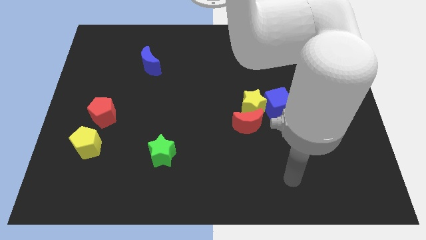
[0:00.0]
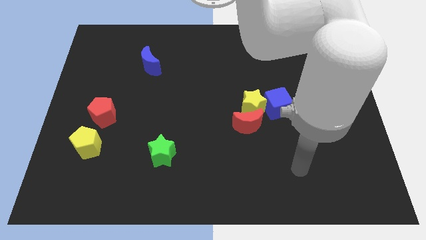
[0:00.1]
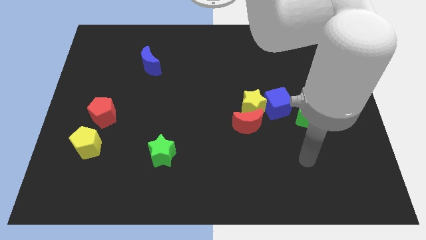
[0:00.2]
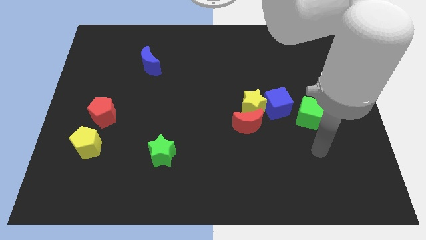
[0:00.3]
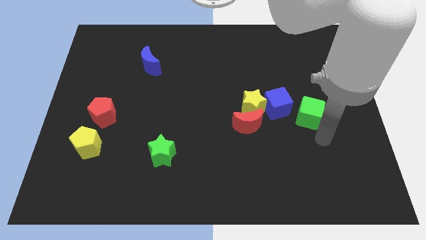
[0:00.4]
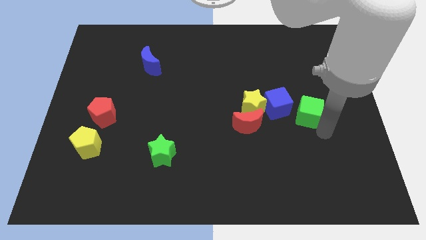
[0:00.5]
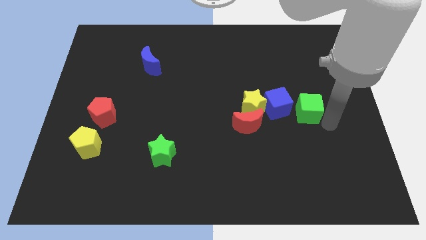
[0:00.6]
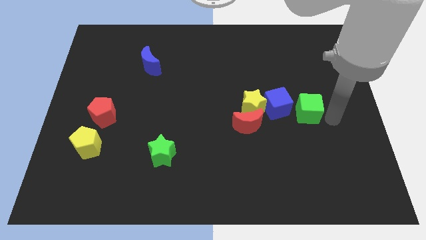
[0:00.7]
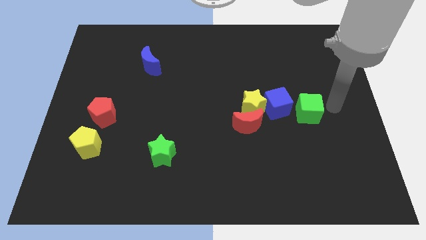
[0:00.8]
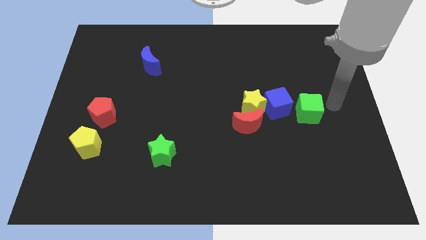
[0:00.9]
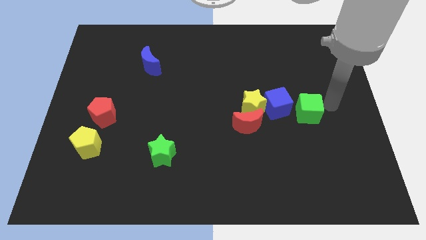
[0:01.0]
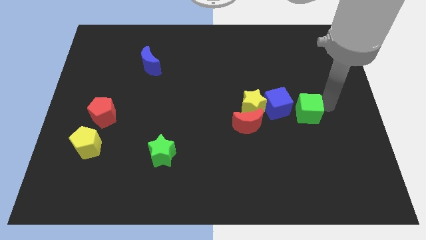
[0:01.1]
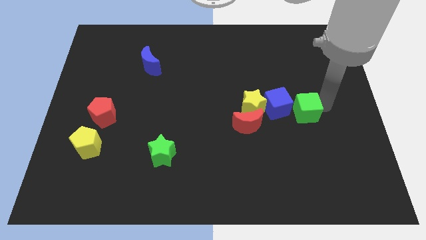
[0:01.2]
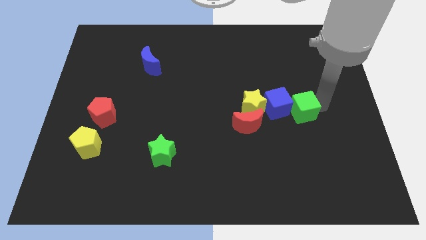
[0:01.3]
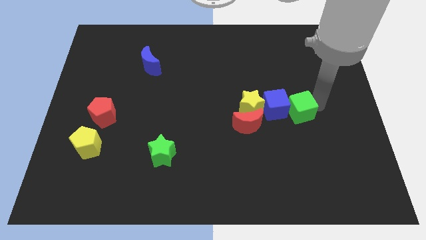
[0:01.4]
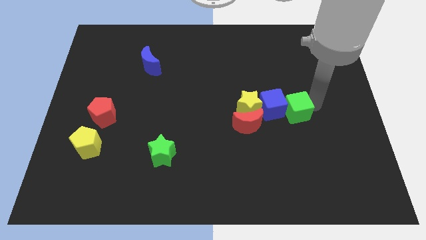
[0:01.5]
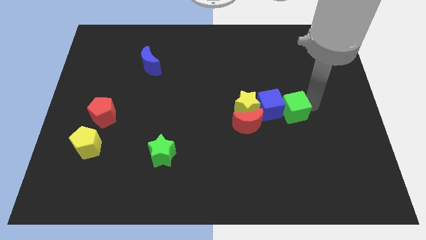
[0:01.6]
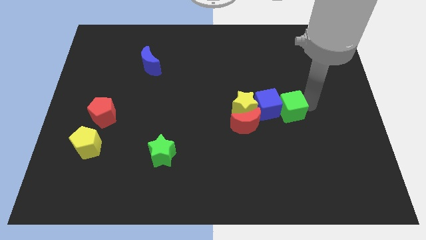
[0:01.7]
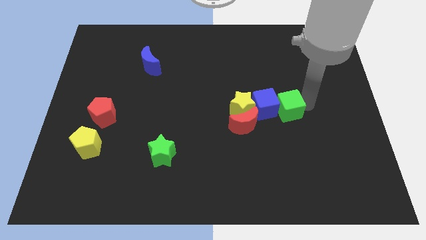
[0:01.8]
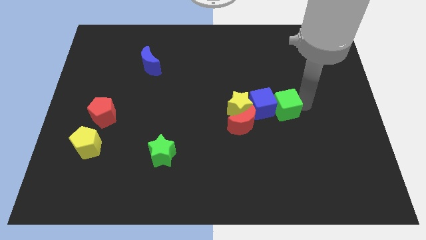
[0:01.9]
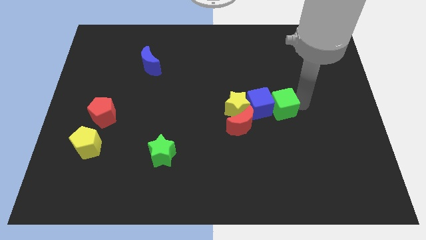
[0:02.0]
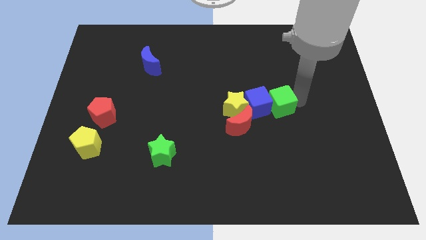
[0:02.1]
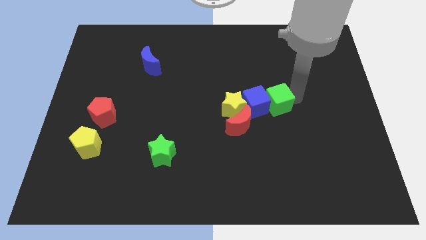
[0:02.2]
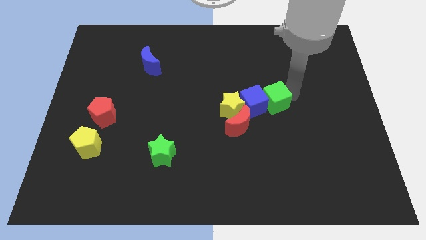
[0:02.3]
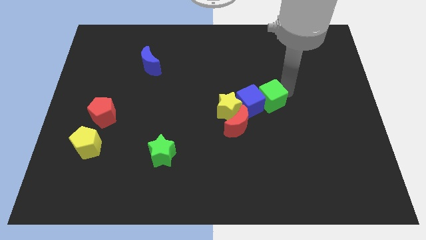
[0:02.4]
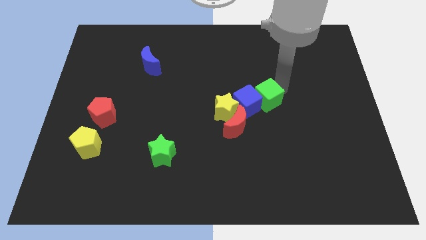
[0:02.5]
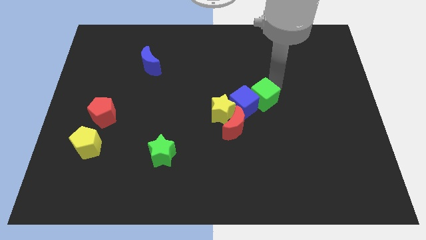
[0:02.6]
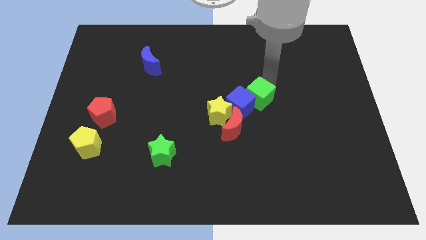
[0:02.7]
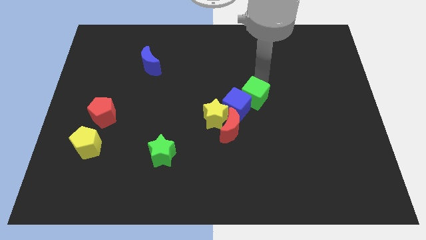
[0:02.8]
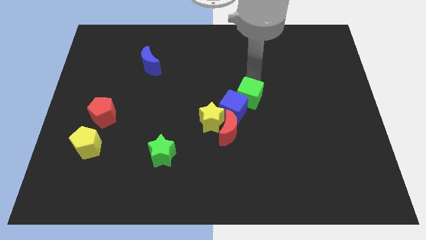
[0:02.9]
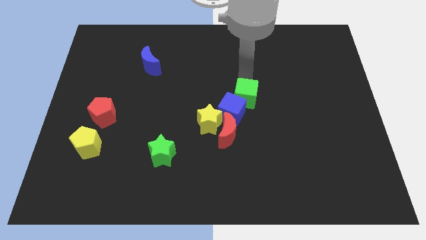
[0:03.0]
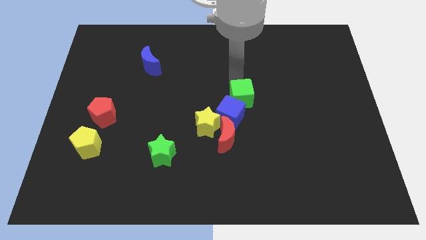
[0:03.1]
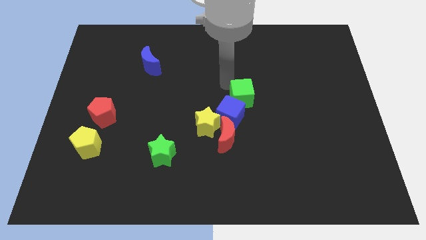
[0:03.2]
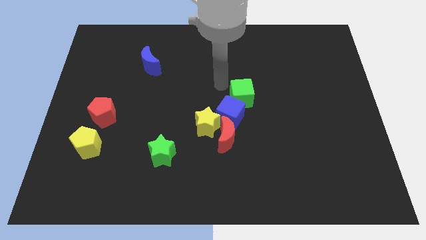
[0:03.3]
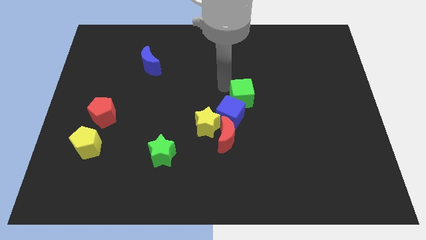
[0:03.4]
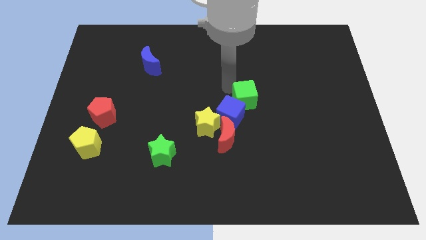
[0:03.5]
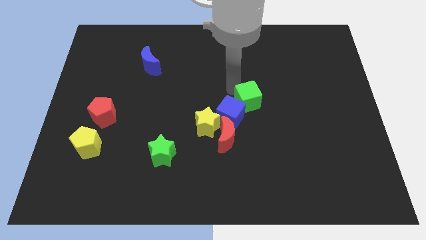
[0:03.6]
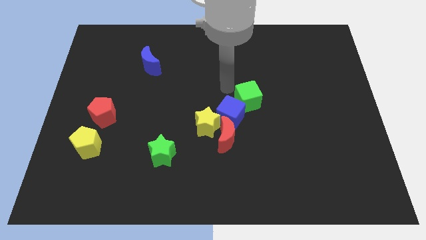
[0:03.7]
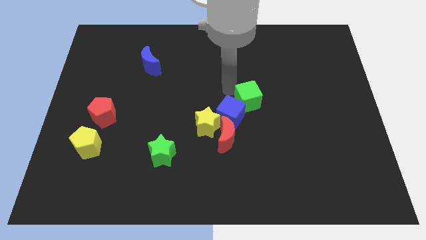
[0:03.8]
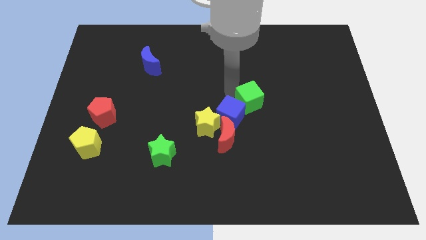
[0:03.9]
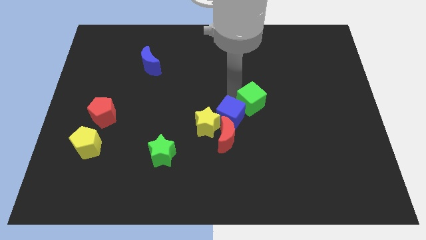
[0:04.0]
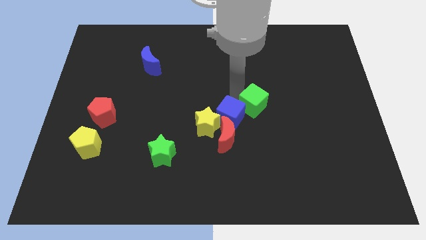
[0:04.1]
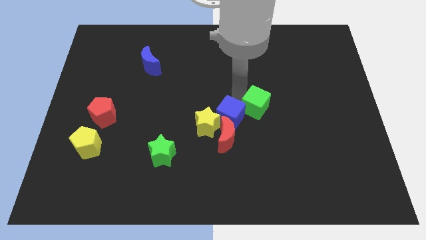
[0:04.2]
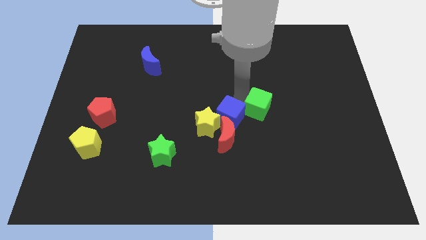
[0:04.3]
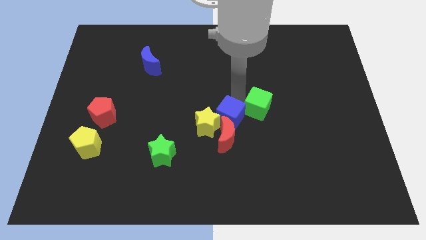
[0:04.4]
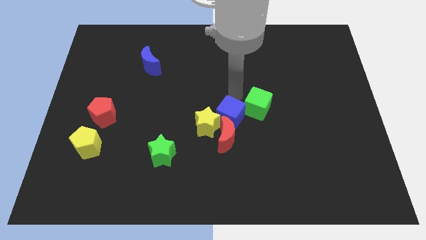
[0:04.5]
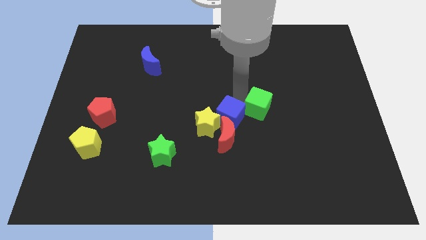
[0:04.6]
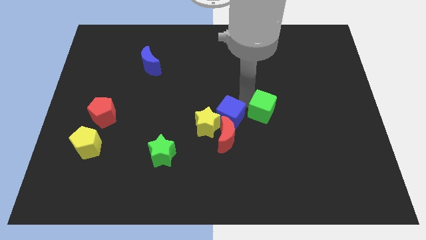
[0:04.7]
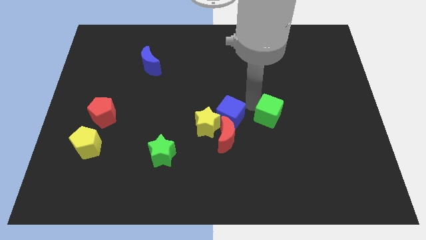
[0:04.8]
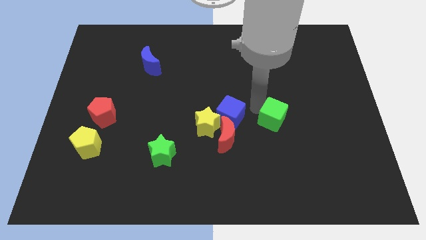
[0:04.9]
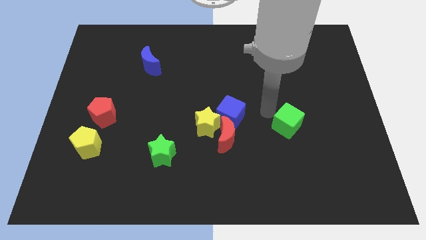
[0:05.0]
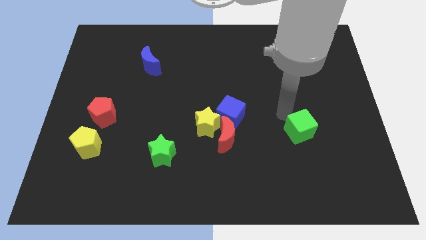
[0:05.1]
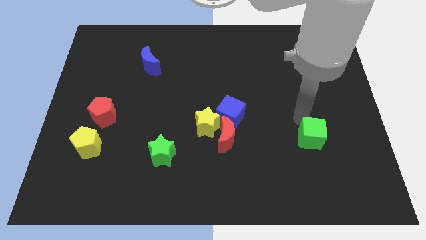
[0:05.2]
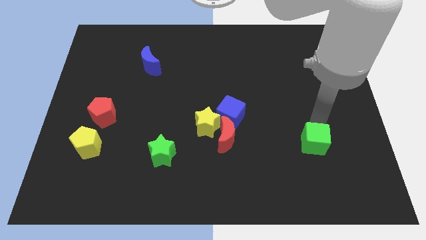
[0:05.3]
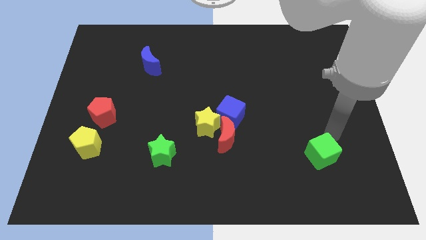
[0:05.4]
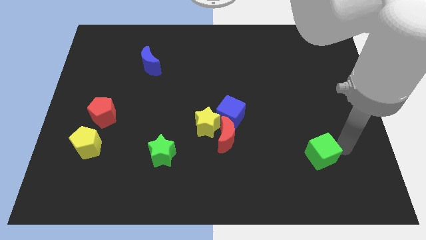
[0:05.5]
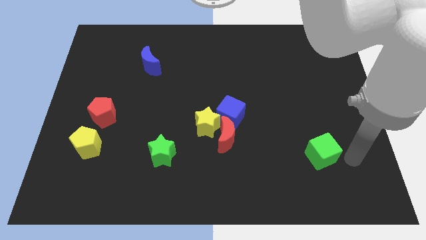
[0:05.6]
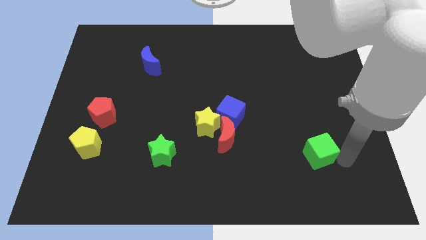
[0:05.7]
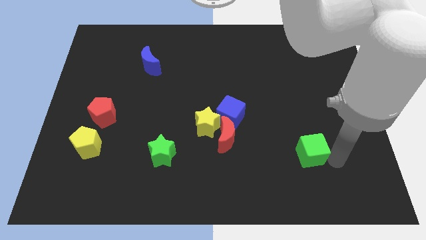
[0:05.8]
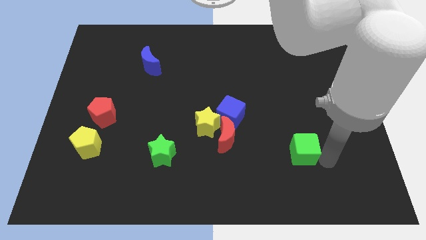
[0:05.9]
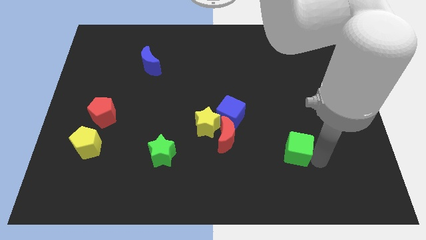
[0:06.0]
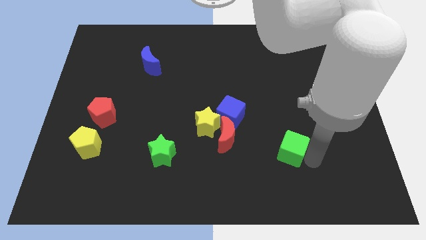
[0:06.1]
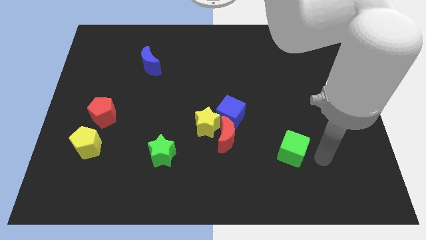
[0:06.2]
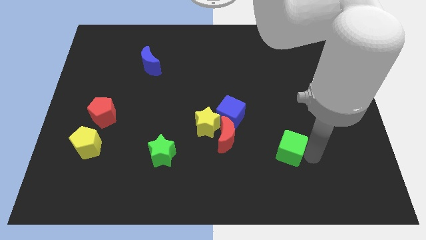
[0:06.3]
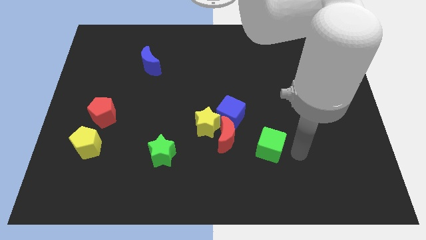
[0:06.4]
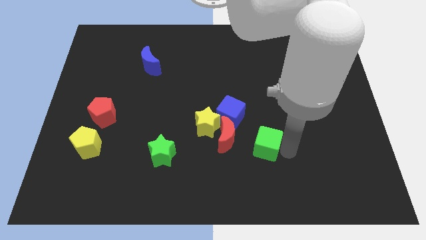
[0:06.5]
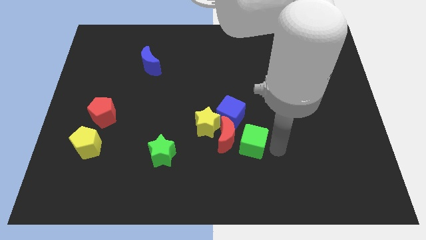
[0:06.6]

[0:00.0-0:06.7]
move the green cube towards the red moon

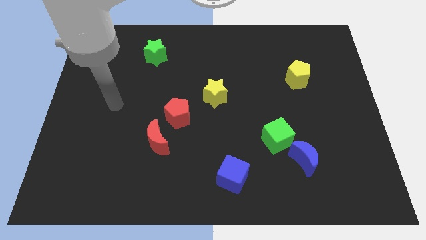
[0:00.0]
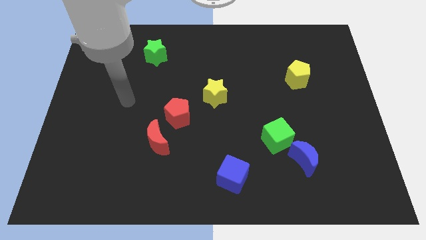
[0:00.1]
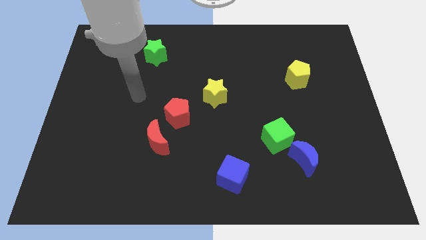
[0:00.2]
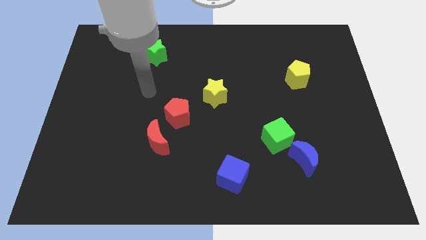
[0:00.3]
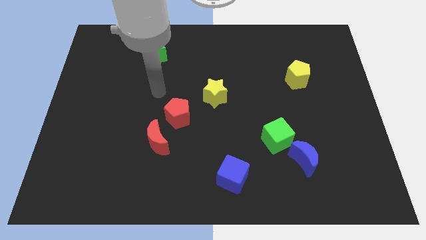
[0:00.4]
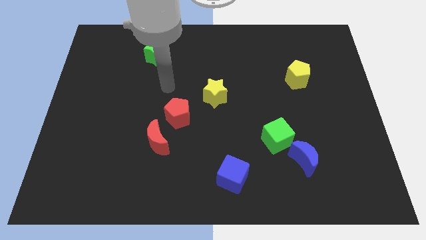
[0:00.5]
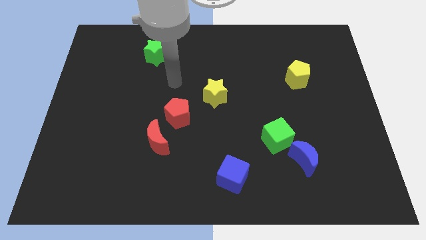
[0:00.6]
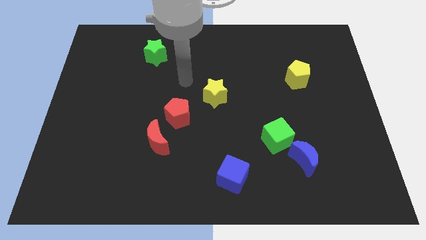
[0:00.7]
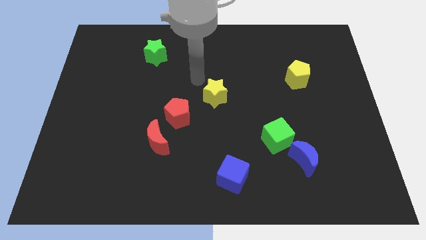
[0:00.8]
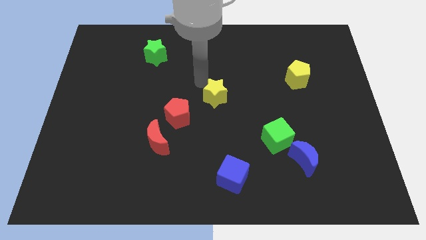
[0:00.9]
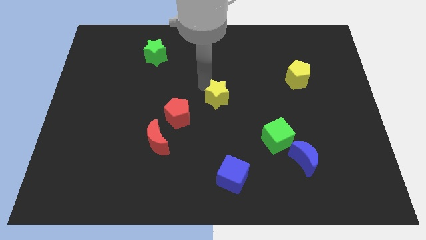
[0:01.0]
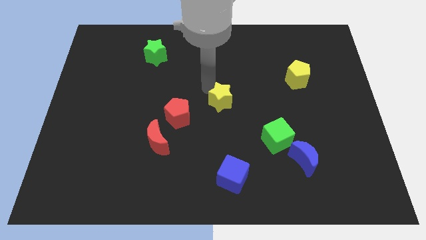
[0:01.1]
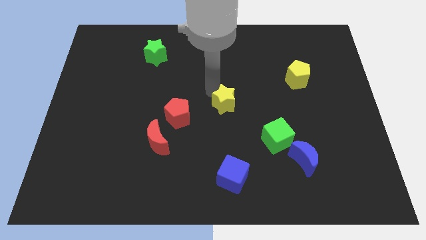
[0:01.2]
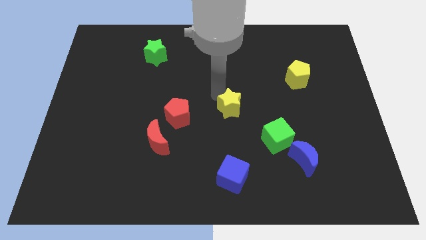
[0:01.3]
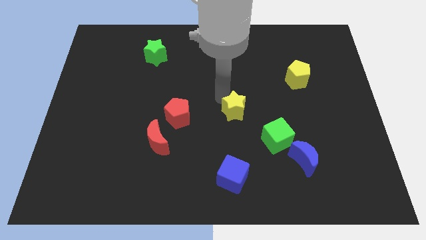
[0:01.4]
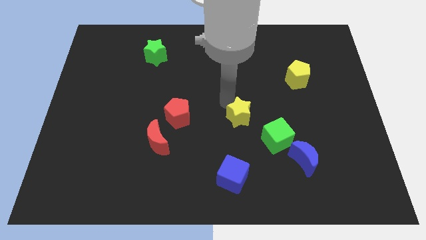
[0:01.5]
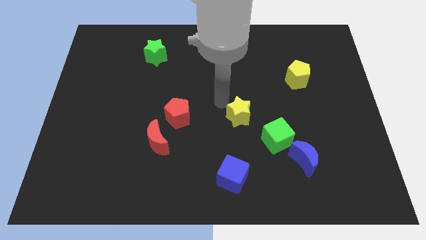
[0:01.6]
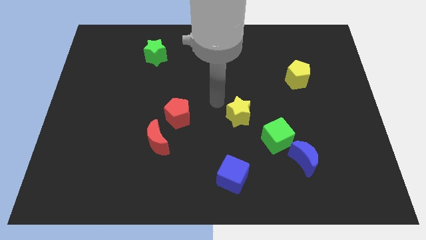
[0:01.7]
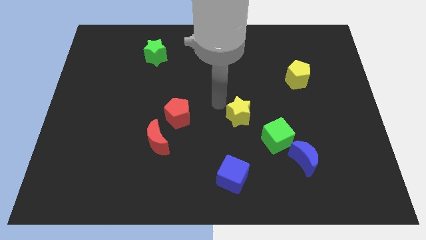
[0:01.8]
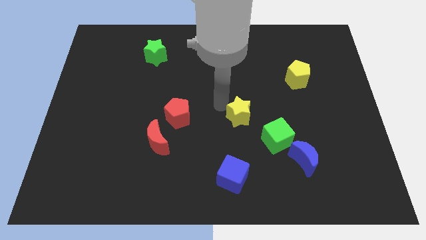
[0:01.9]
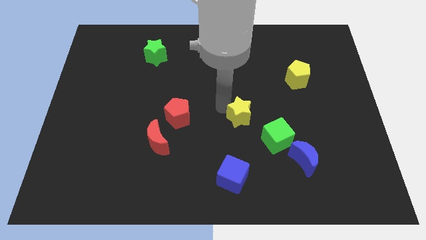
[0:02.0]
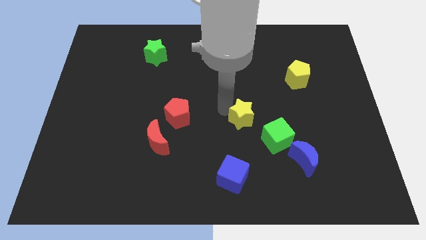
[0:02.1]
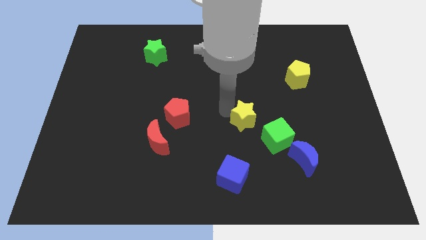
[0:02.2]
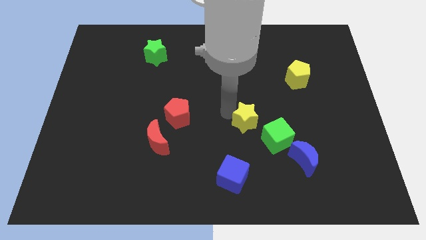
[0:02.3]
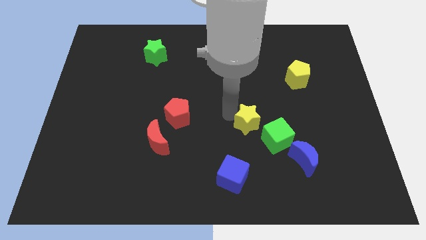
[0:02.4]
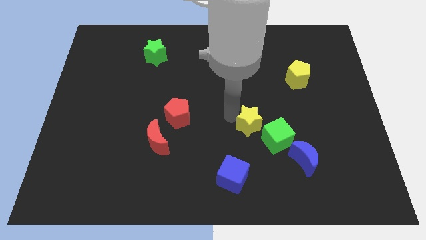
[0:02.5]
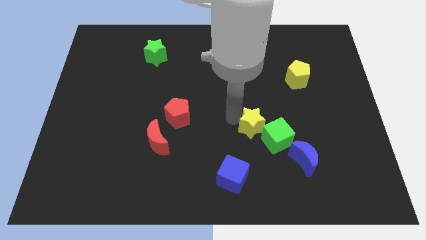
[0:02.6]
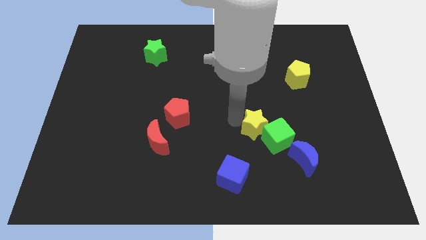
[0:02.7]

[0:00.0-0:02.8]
push the yellow star to the green cube
